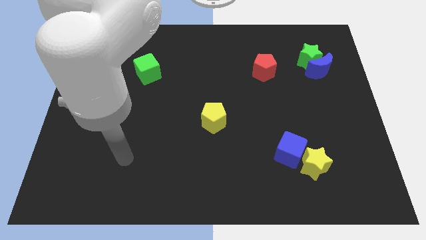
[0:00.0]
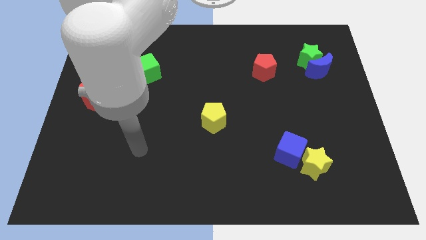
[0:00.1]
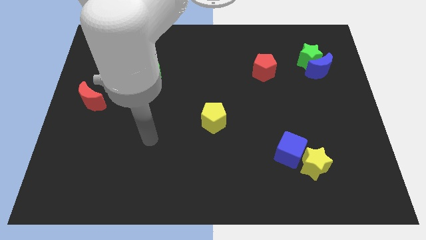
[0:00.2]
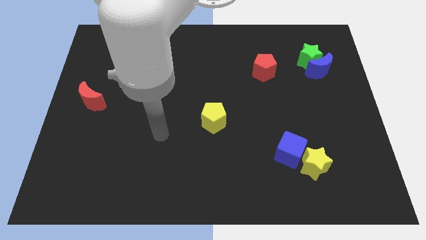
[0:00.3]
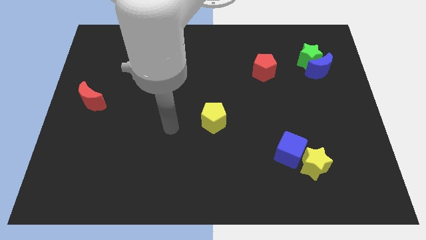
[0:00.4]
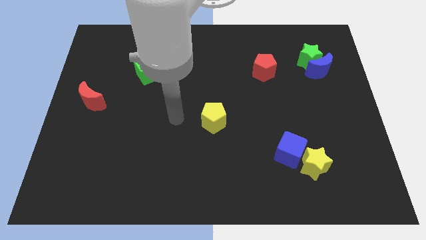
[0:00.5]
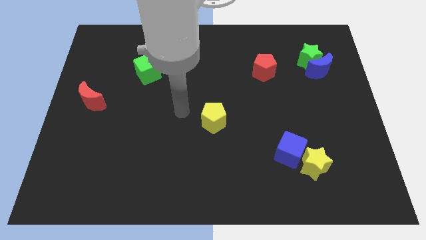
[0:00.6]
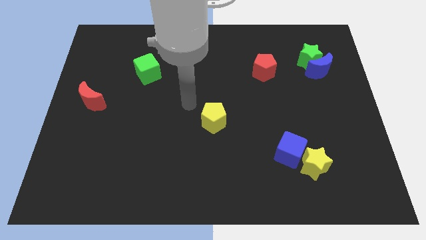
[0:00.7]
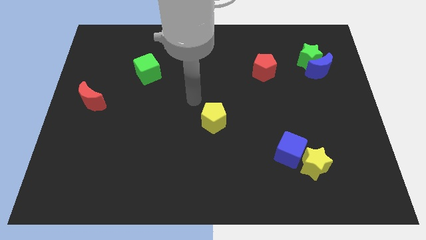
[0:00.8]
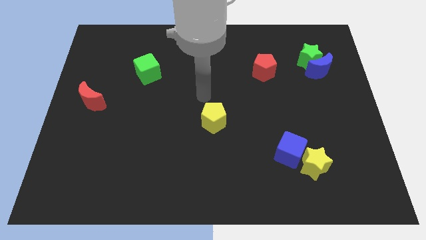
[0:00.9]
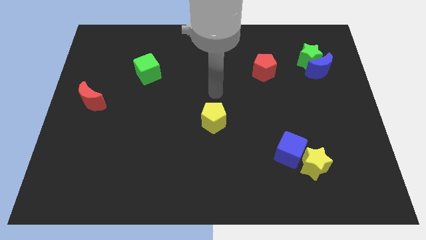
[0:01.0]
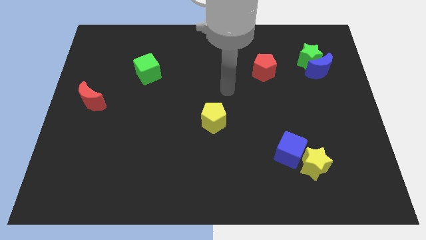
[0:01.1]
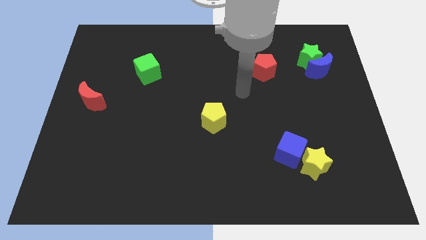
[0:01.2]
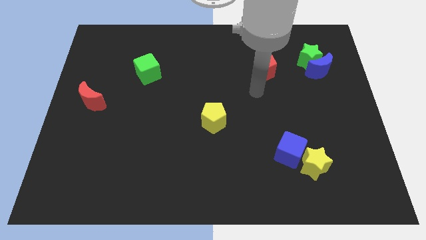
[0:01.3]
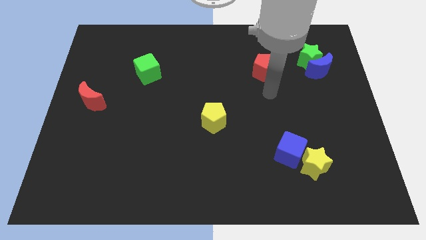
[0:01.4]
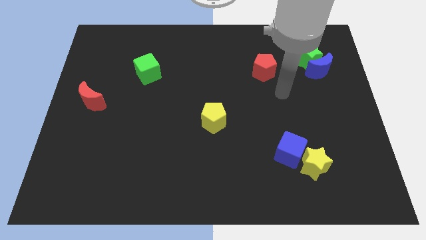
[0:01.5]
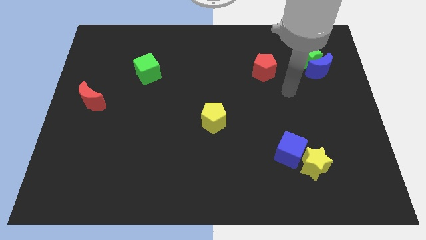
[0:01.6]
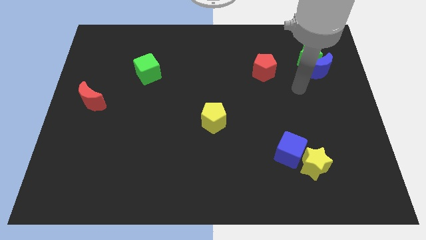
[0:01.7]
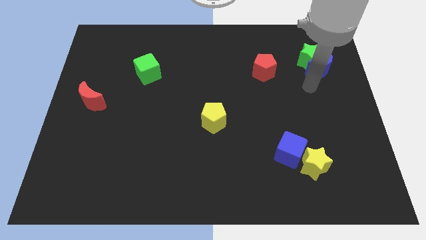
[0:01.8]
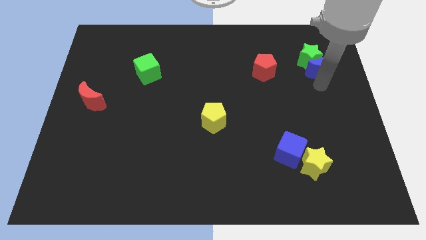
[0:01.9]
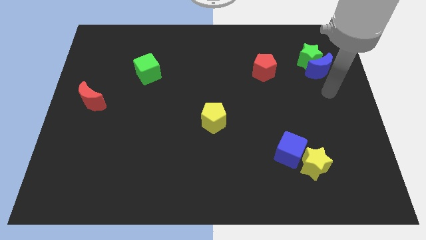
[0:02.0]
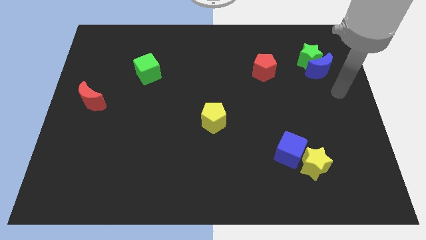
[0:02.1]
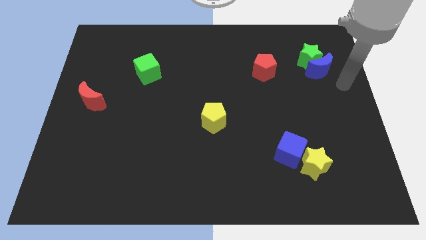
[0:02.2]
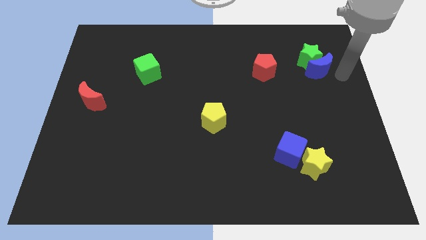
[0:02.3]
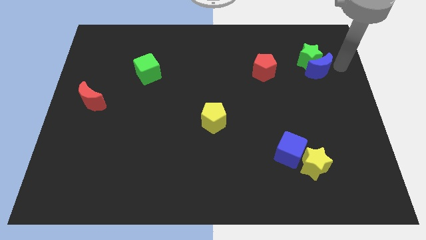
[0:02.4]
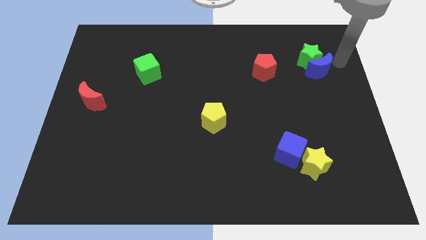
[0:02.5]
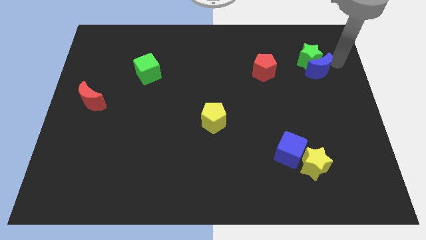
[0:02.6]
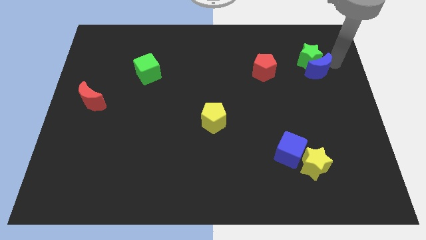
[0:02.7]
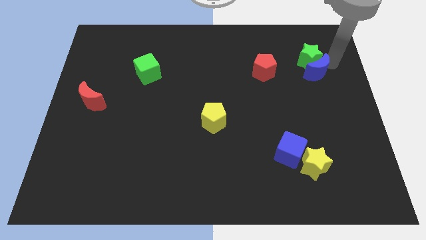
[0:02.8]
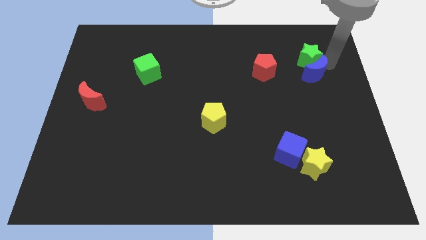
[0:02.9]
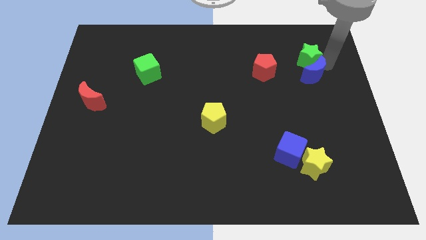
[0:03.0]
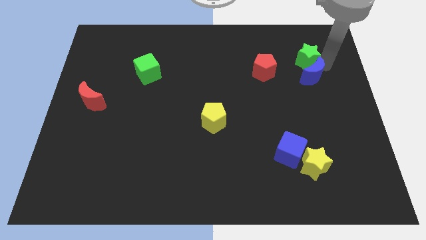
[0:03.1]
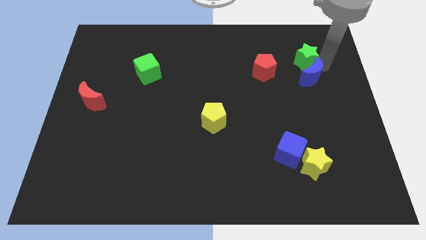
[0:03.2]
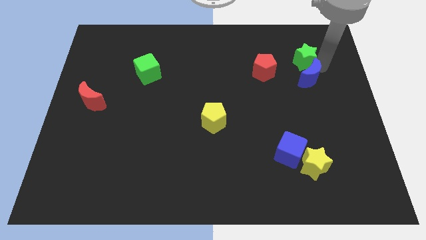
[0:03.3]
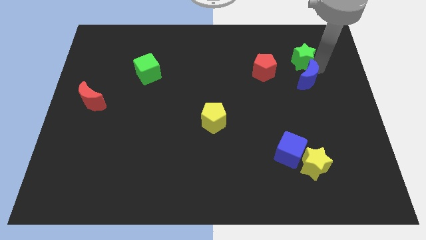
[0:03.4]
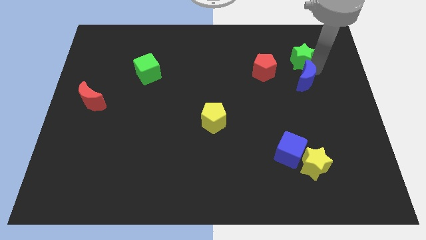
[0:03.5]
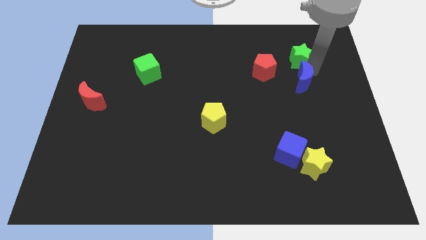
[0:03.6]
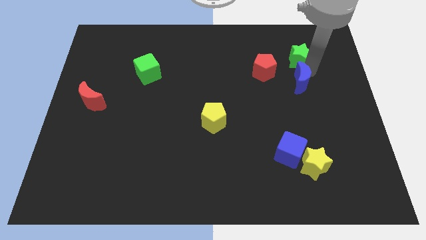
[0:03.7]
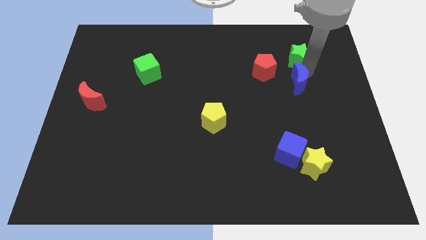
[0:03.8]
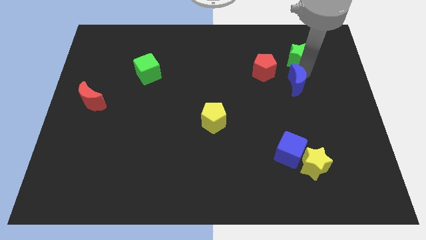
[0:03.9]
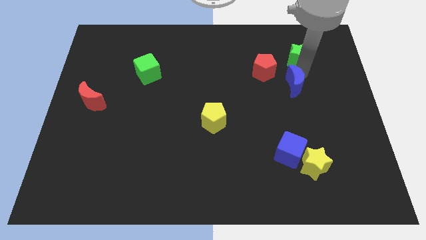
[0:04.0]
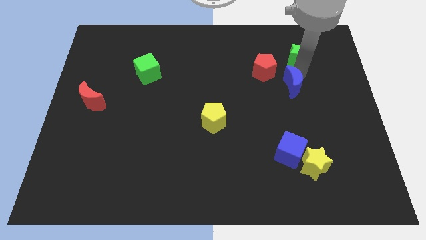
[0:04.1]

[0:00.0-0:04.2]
slide the blue moon a bit left

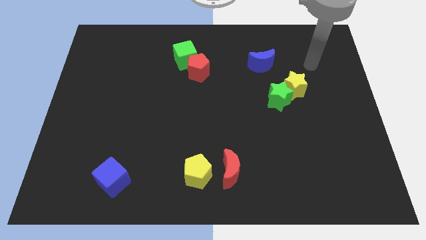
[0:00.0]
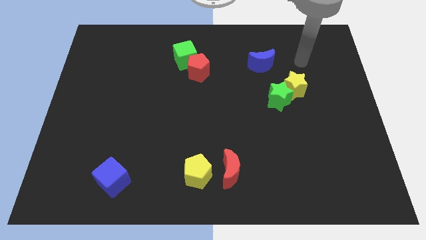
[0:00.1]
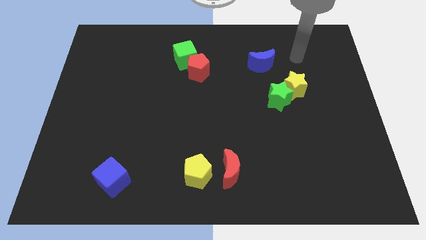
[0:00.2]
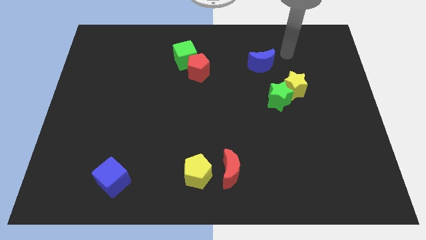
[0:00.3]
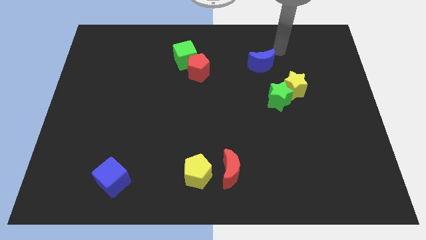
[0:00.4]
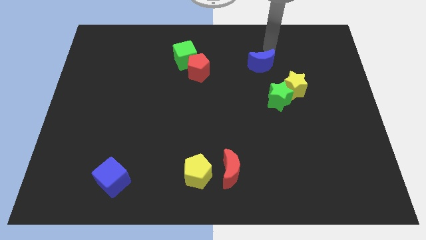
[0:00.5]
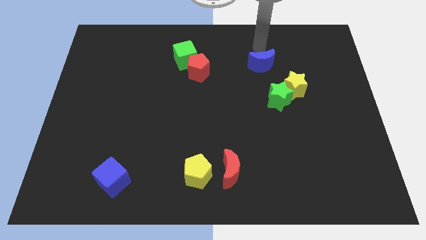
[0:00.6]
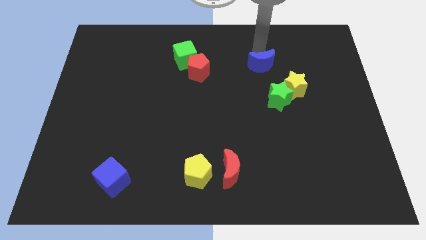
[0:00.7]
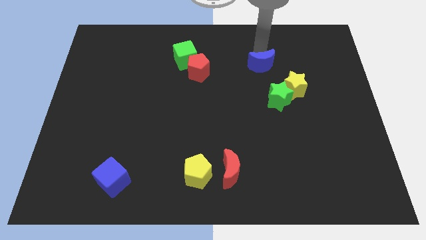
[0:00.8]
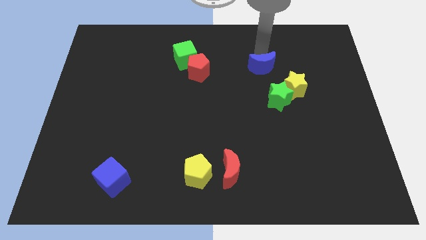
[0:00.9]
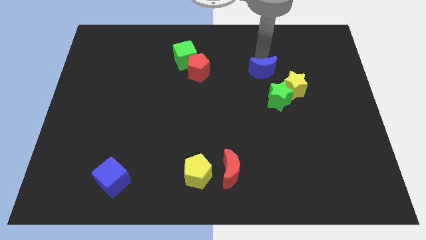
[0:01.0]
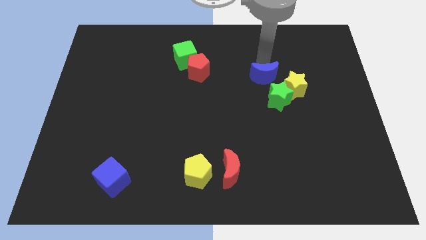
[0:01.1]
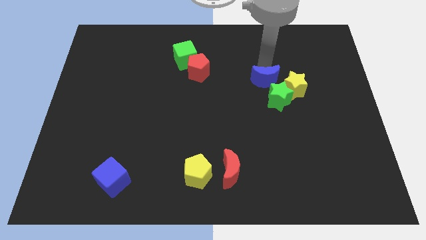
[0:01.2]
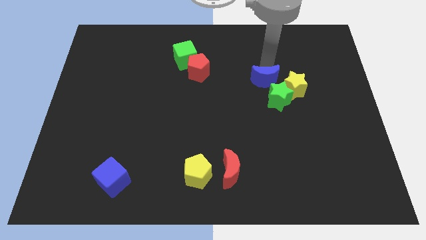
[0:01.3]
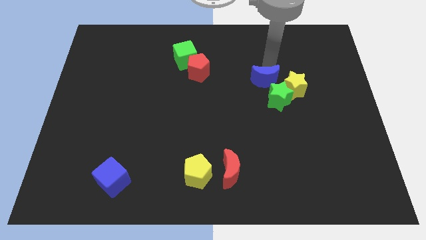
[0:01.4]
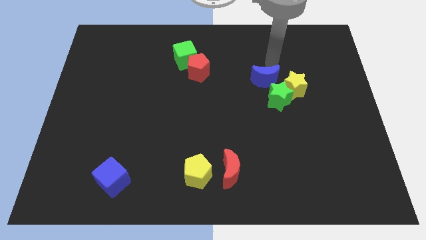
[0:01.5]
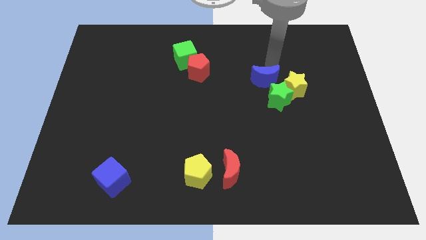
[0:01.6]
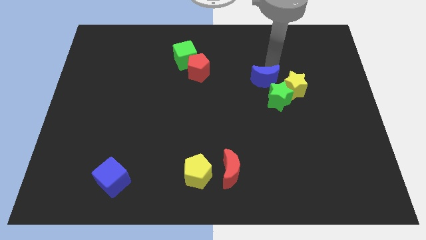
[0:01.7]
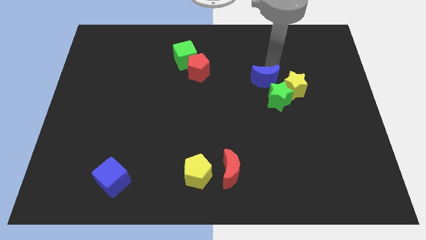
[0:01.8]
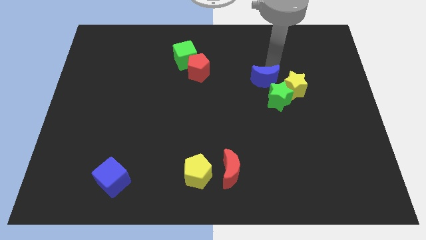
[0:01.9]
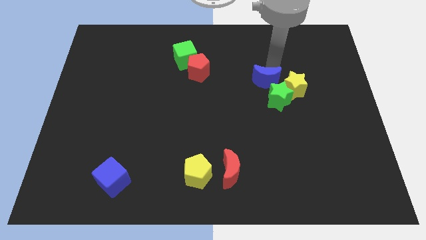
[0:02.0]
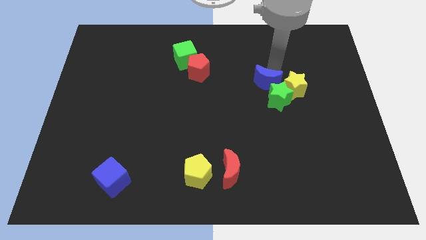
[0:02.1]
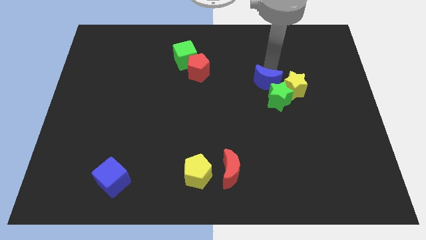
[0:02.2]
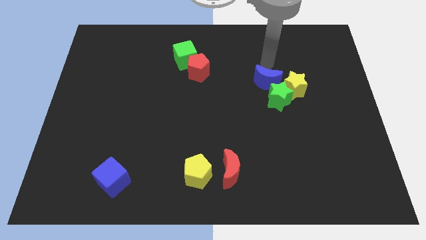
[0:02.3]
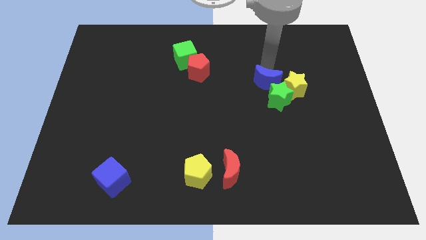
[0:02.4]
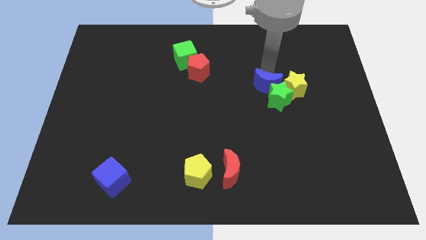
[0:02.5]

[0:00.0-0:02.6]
move the blue moon a little bit downwards

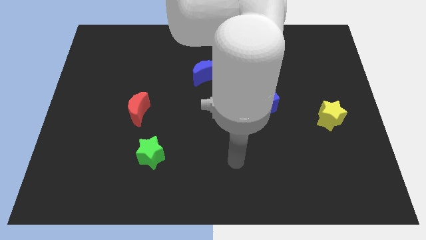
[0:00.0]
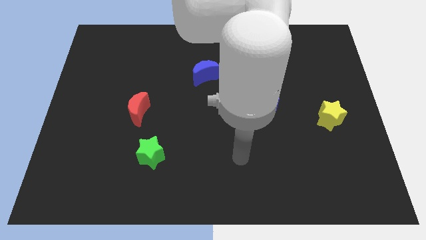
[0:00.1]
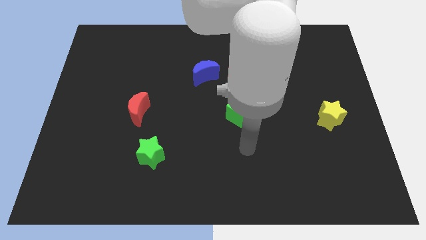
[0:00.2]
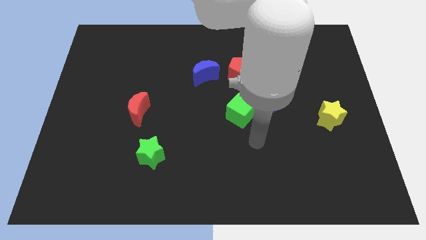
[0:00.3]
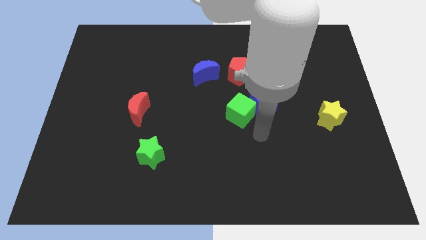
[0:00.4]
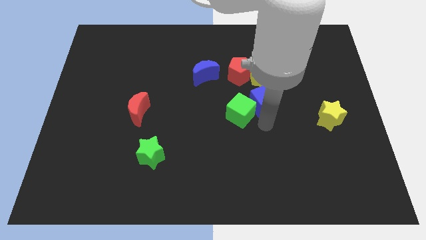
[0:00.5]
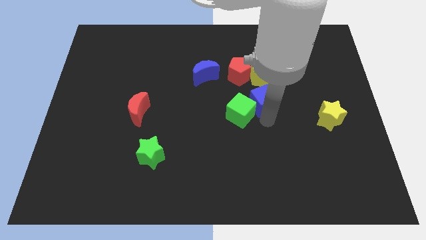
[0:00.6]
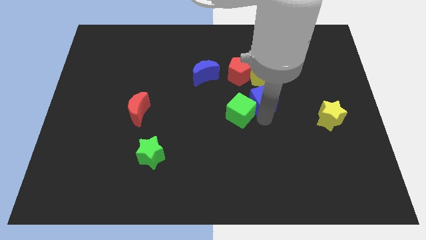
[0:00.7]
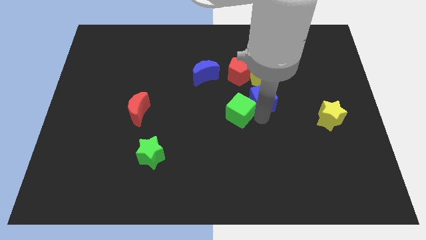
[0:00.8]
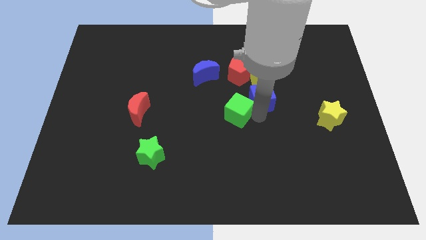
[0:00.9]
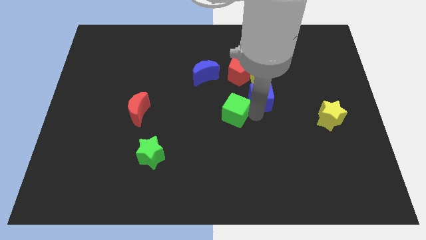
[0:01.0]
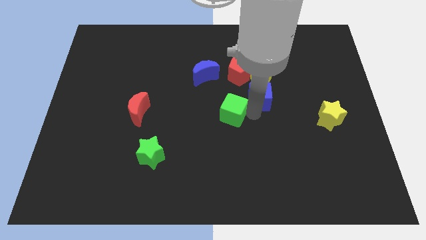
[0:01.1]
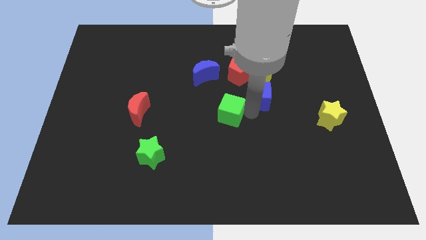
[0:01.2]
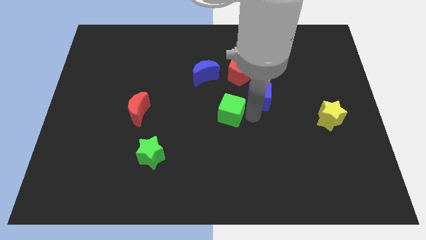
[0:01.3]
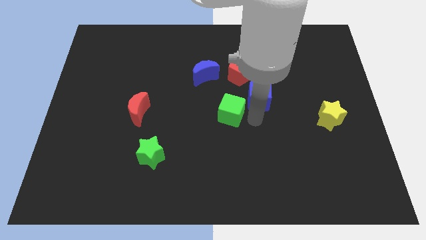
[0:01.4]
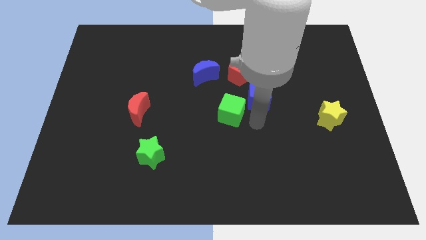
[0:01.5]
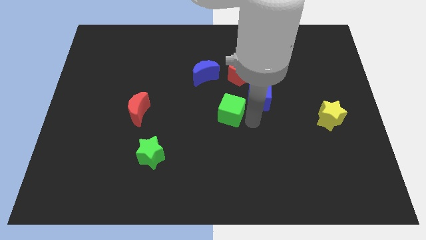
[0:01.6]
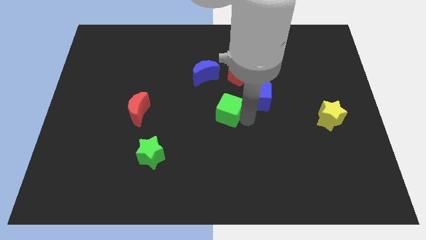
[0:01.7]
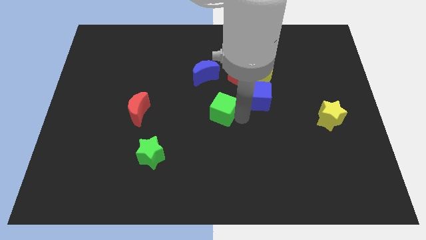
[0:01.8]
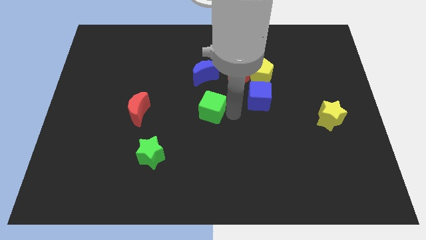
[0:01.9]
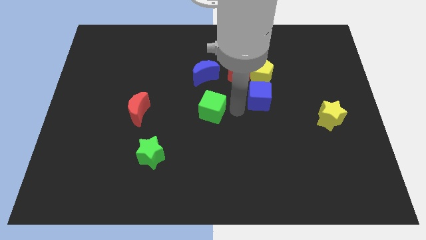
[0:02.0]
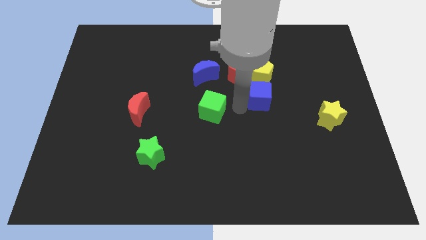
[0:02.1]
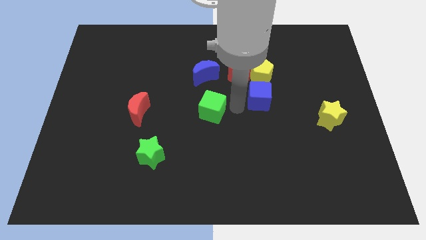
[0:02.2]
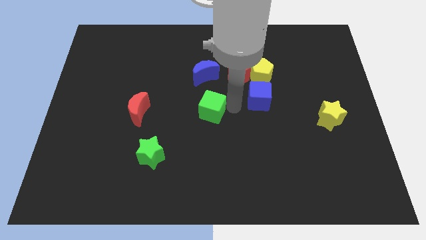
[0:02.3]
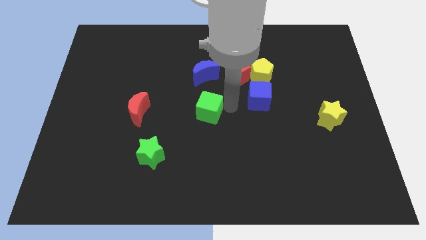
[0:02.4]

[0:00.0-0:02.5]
slide the green cube a bit to the left
